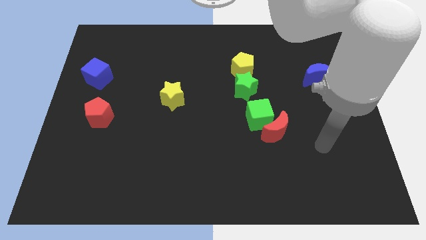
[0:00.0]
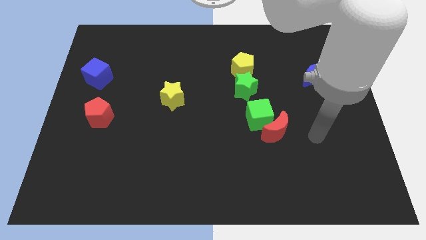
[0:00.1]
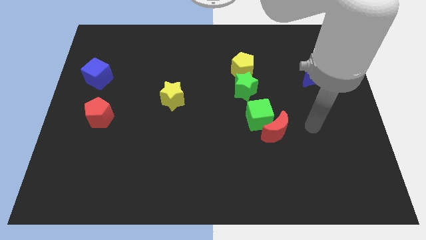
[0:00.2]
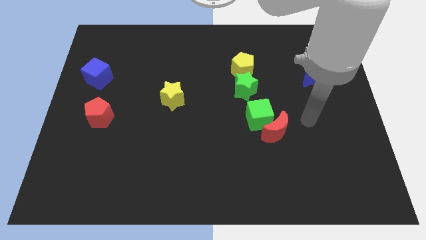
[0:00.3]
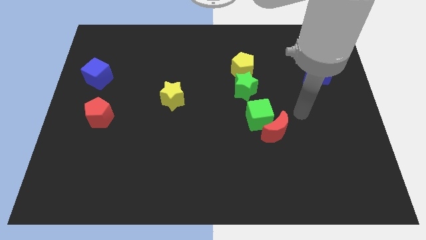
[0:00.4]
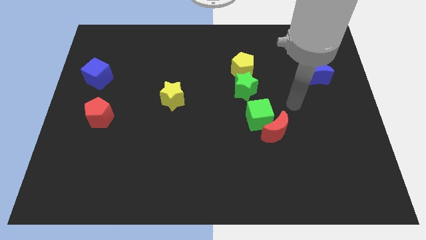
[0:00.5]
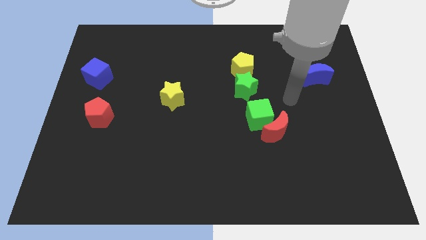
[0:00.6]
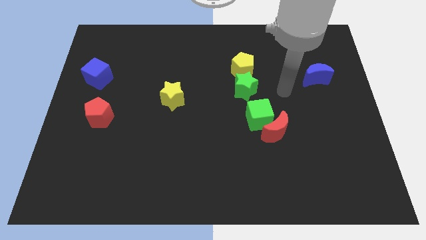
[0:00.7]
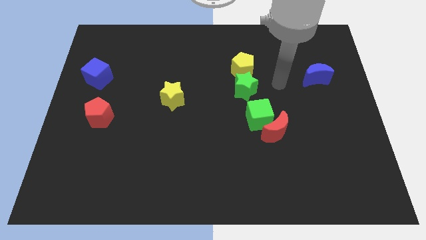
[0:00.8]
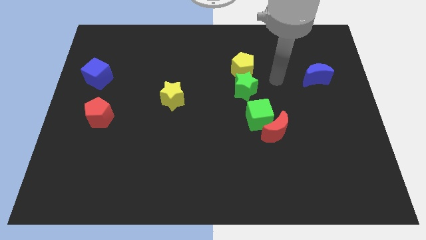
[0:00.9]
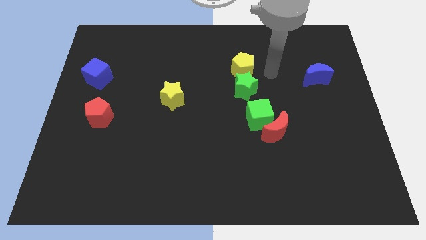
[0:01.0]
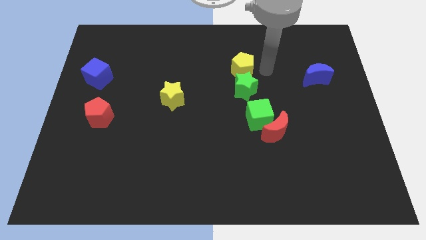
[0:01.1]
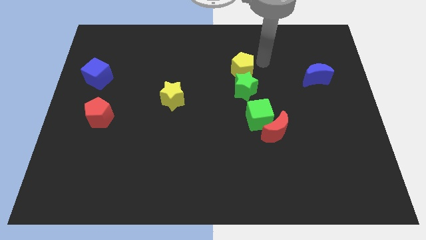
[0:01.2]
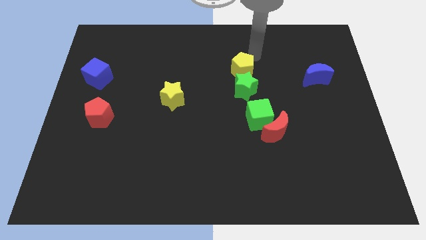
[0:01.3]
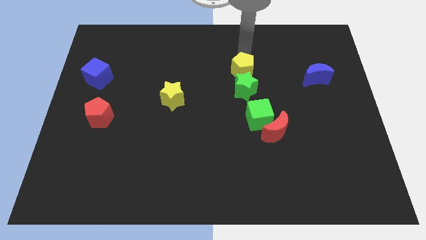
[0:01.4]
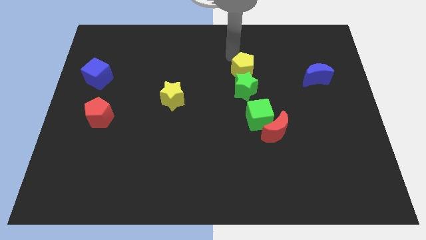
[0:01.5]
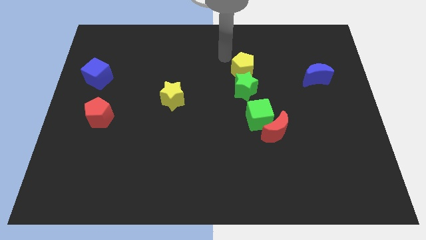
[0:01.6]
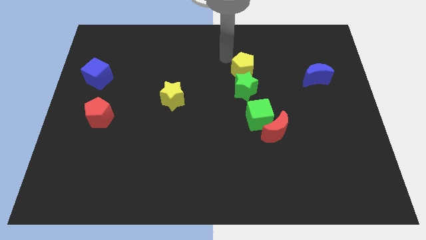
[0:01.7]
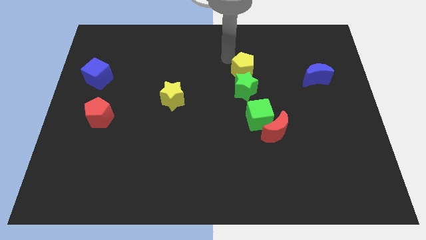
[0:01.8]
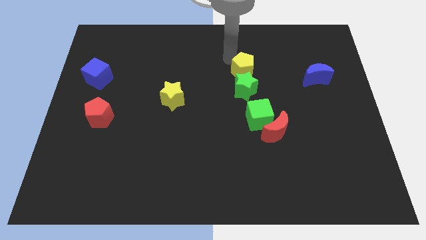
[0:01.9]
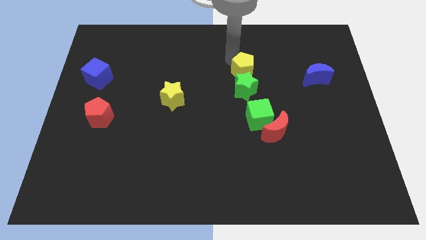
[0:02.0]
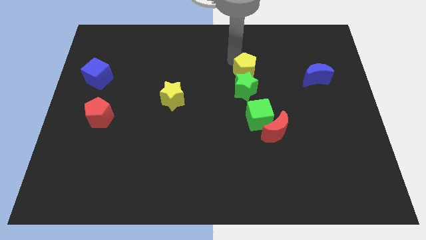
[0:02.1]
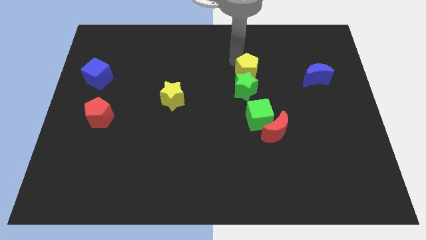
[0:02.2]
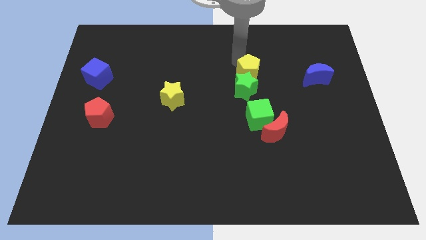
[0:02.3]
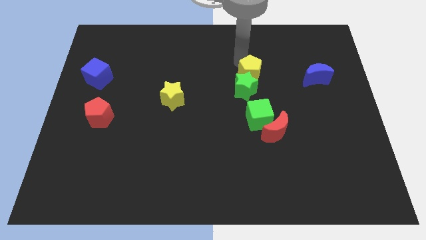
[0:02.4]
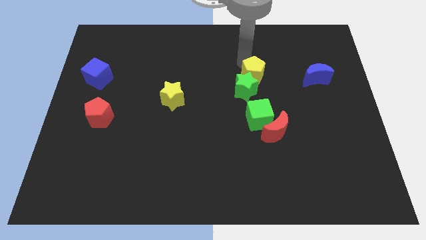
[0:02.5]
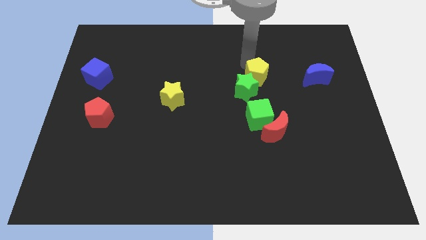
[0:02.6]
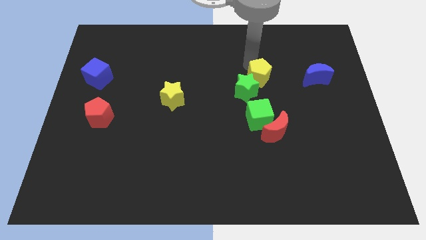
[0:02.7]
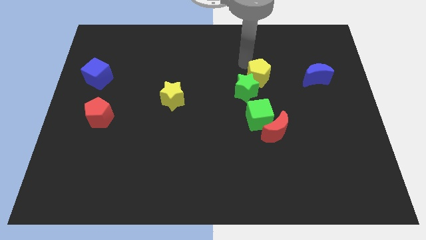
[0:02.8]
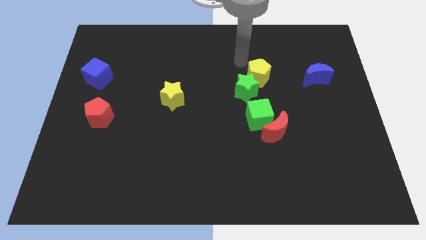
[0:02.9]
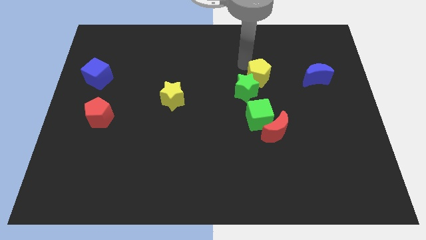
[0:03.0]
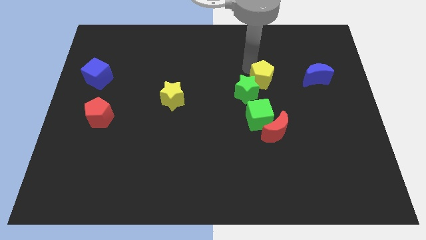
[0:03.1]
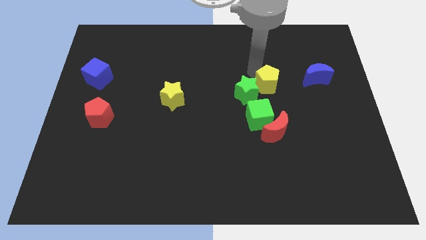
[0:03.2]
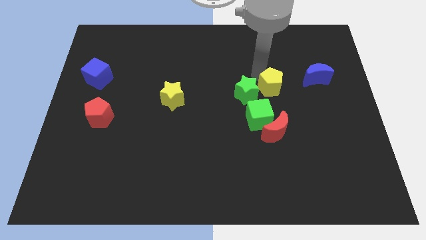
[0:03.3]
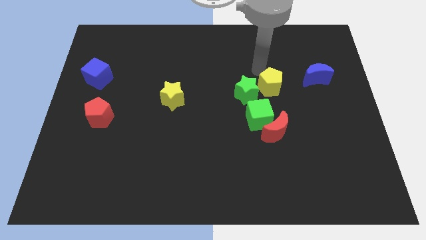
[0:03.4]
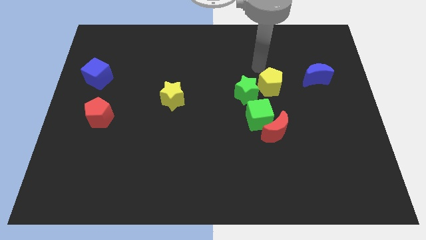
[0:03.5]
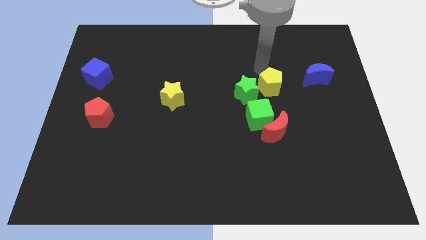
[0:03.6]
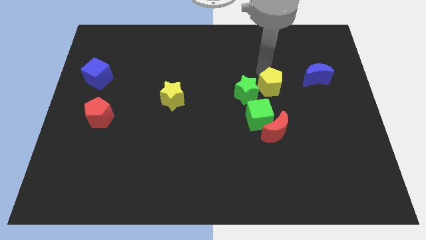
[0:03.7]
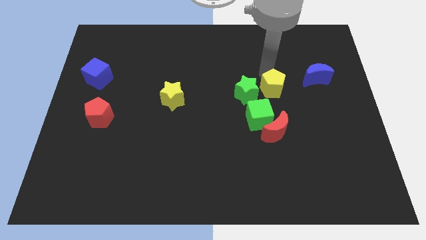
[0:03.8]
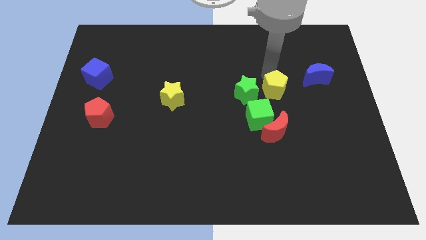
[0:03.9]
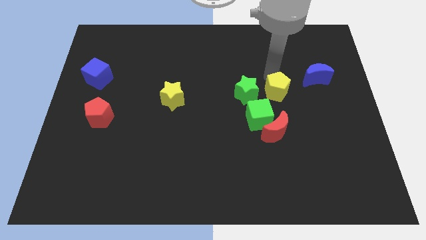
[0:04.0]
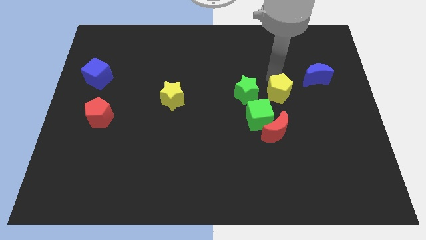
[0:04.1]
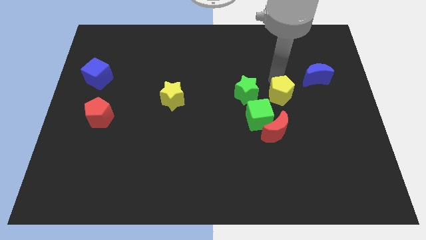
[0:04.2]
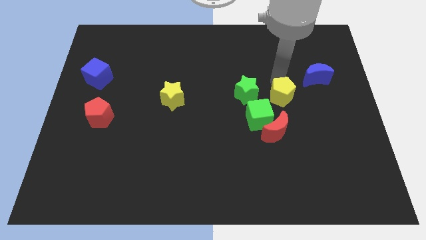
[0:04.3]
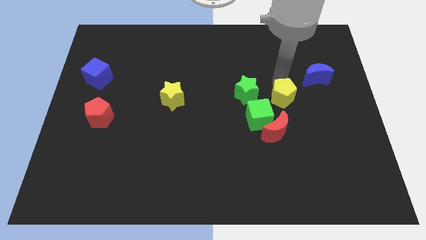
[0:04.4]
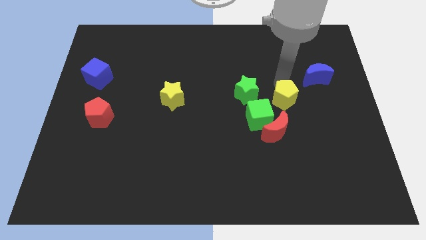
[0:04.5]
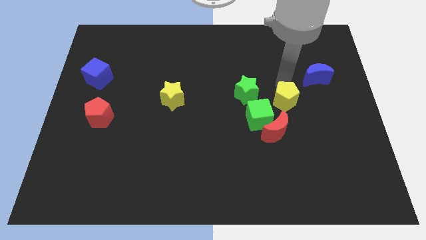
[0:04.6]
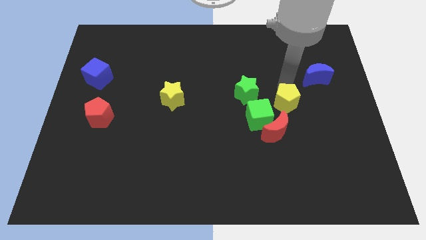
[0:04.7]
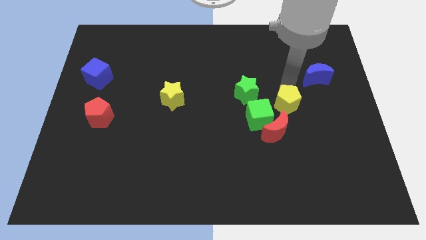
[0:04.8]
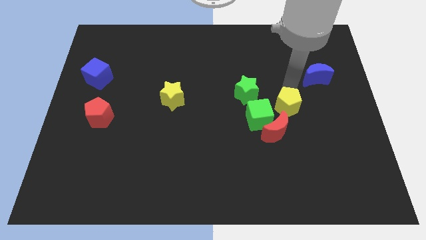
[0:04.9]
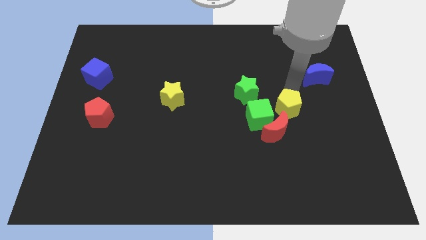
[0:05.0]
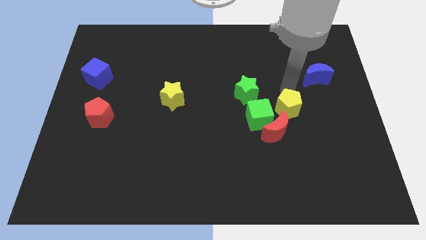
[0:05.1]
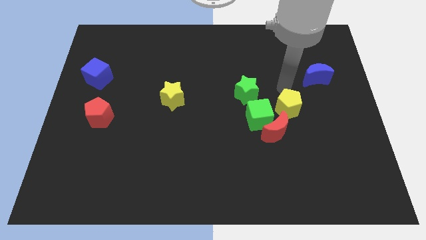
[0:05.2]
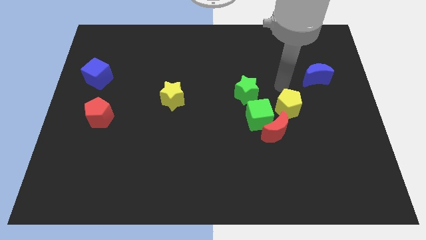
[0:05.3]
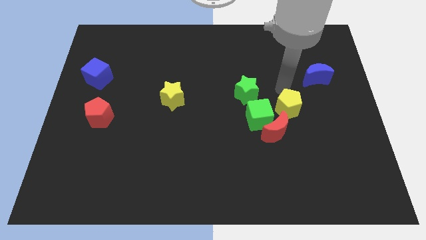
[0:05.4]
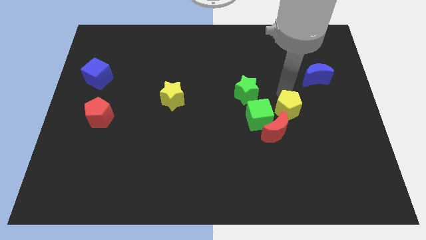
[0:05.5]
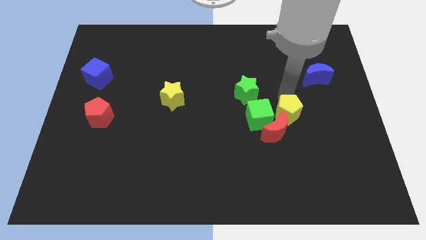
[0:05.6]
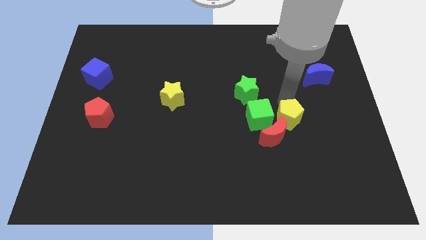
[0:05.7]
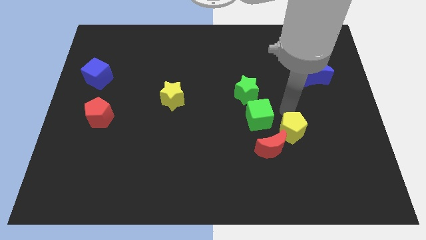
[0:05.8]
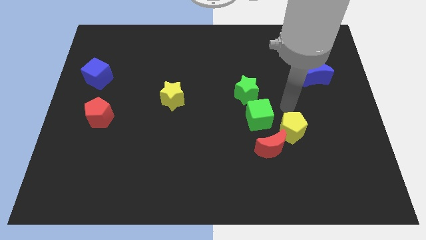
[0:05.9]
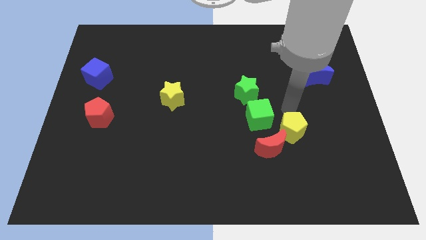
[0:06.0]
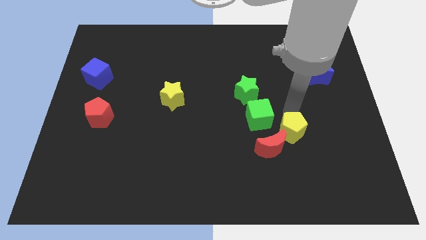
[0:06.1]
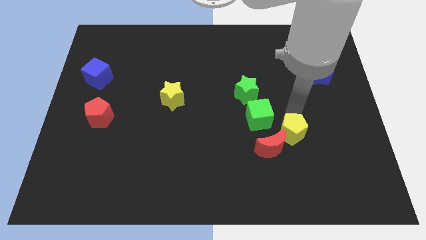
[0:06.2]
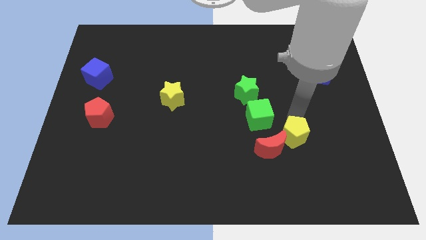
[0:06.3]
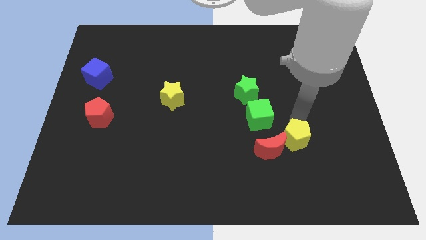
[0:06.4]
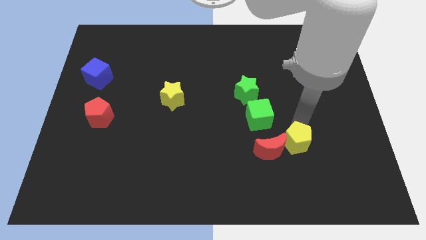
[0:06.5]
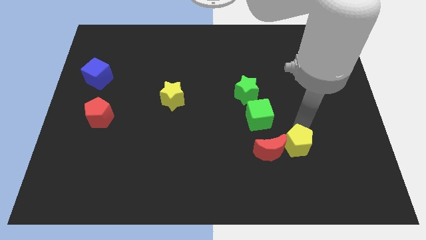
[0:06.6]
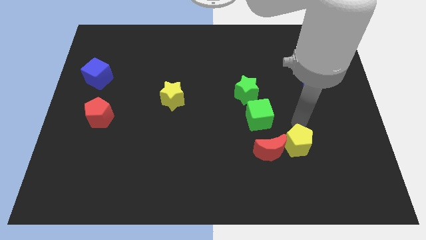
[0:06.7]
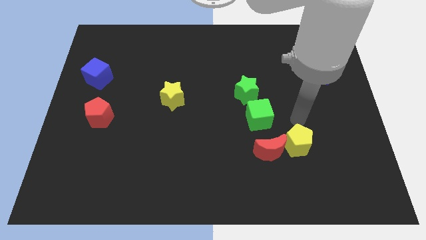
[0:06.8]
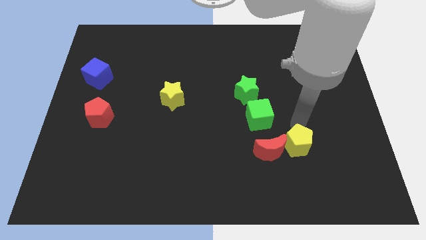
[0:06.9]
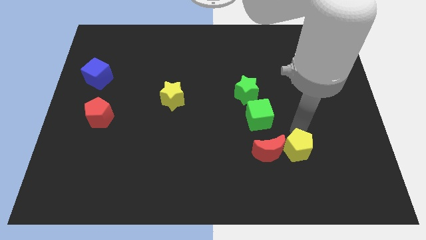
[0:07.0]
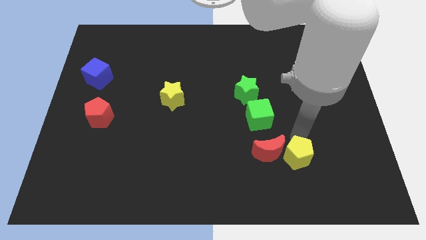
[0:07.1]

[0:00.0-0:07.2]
push the yellow pentagon diagonally down and to the right of the red moon

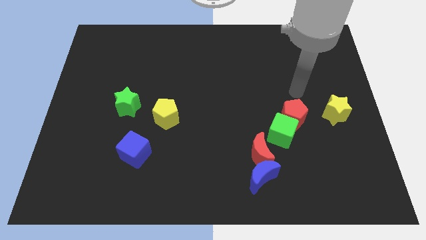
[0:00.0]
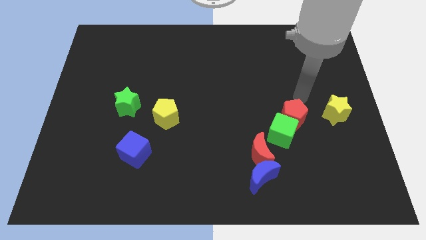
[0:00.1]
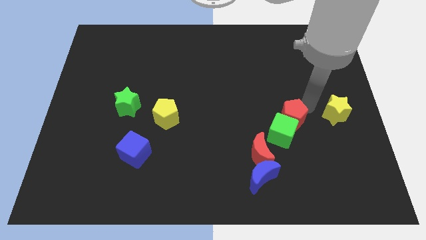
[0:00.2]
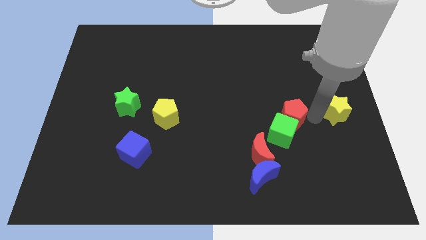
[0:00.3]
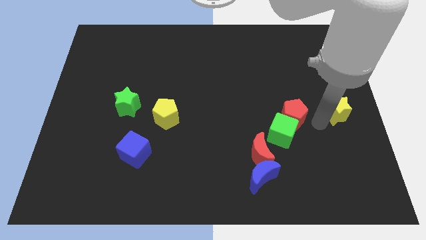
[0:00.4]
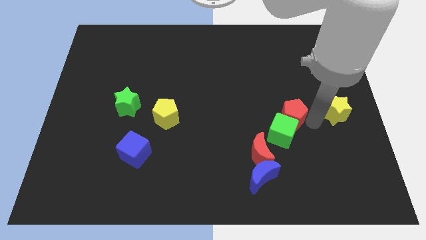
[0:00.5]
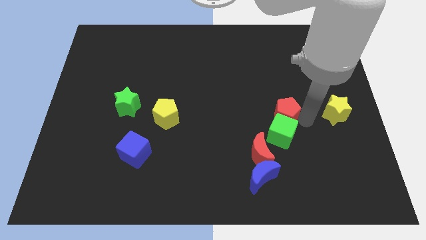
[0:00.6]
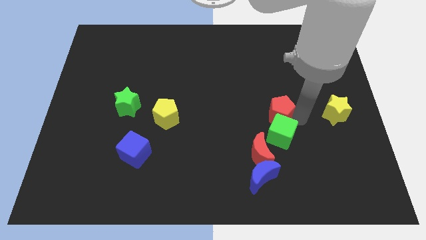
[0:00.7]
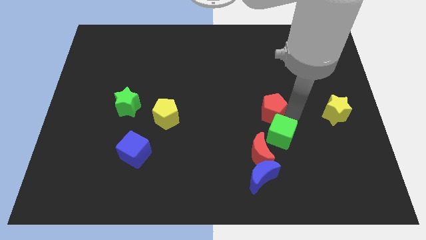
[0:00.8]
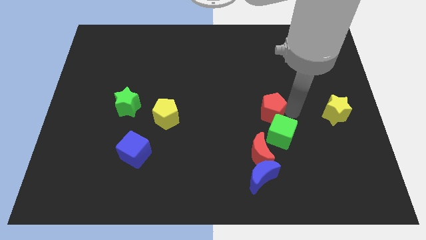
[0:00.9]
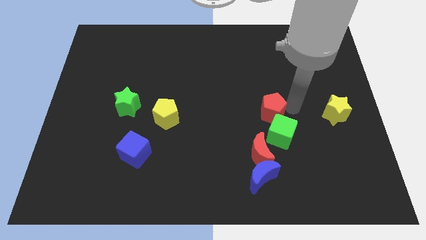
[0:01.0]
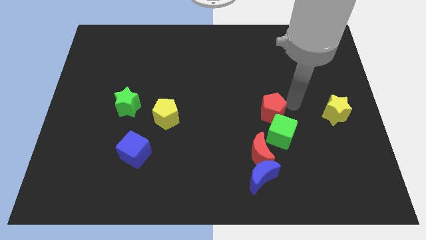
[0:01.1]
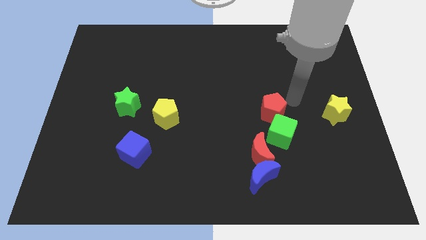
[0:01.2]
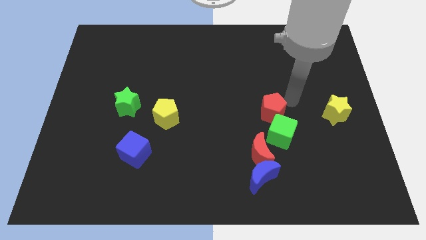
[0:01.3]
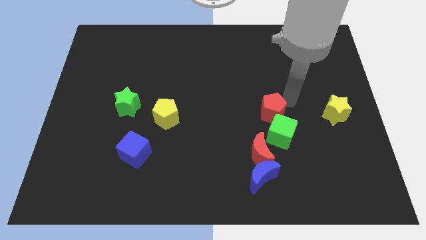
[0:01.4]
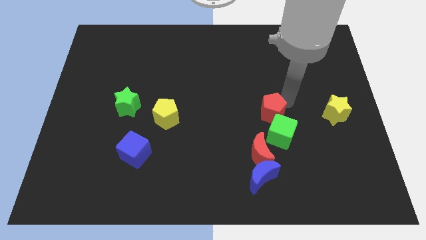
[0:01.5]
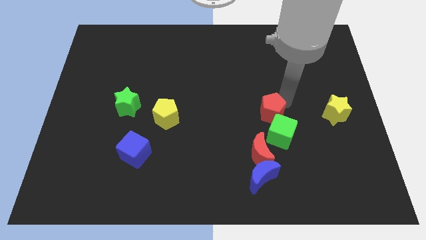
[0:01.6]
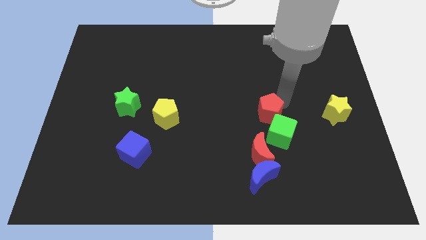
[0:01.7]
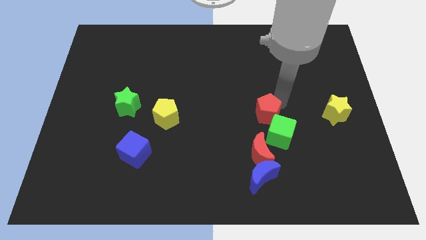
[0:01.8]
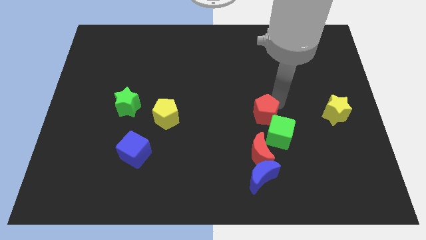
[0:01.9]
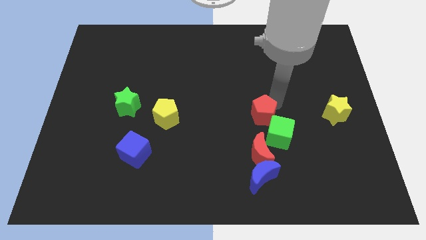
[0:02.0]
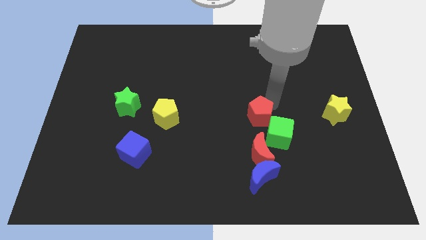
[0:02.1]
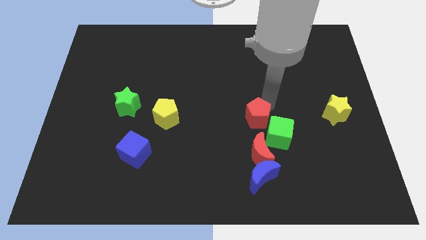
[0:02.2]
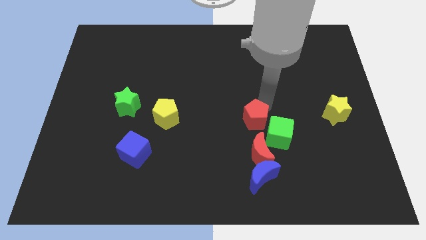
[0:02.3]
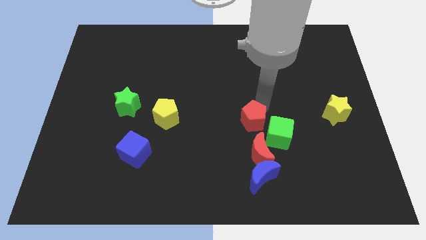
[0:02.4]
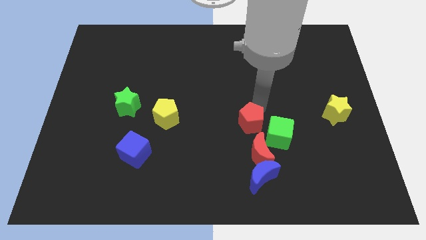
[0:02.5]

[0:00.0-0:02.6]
push the red pentagon to the top left side of the red moon
